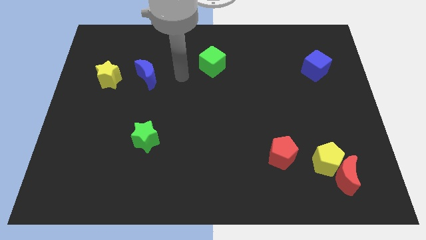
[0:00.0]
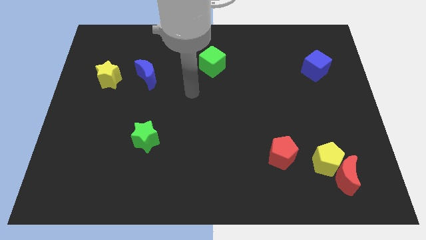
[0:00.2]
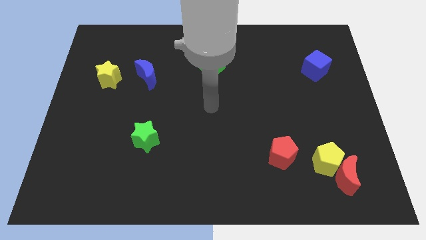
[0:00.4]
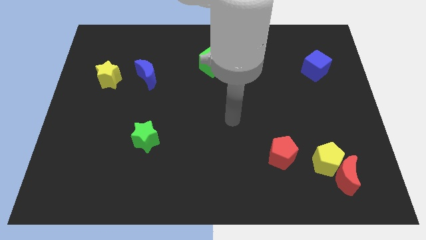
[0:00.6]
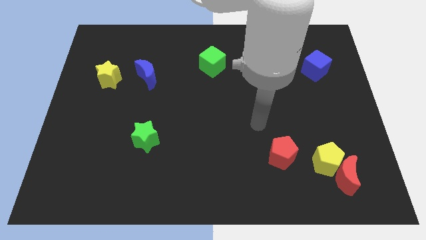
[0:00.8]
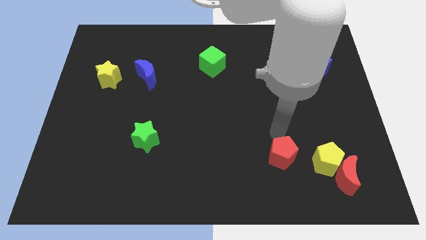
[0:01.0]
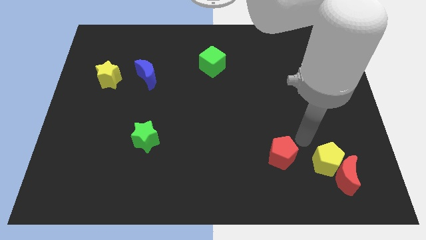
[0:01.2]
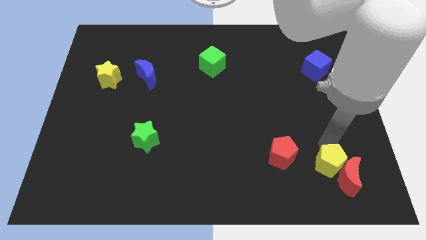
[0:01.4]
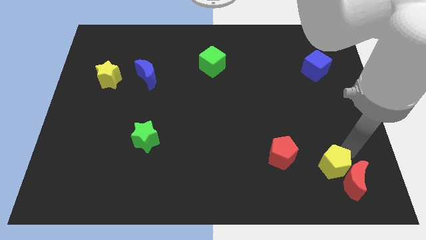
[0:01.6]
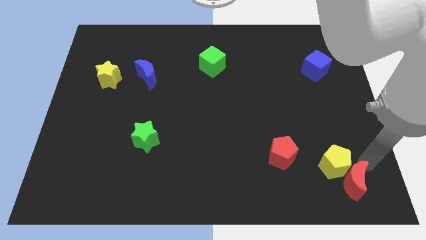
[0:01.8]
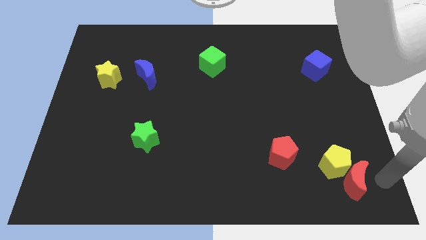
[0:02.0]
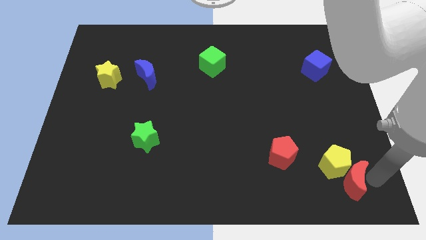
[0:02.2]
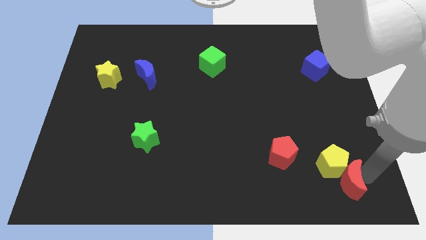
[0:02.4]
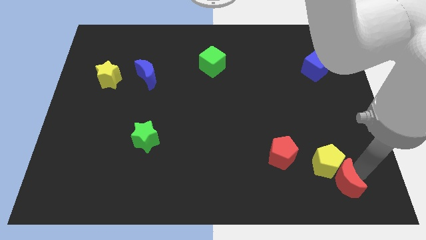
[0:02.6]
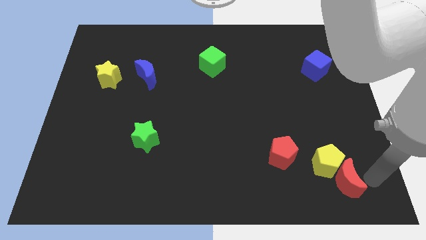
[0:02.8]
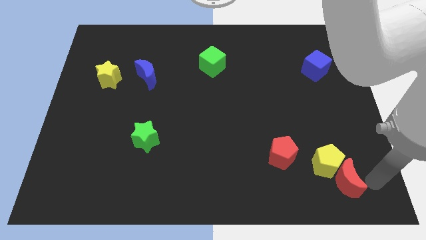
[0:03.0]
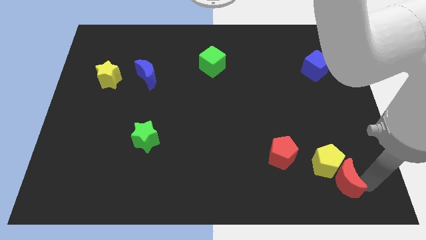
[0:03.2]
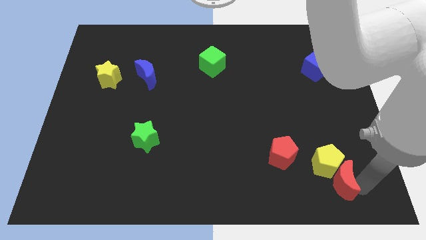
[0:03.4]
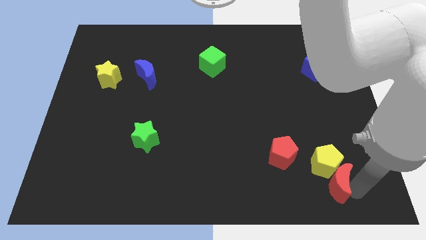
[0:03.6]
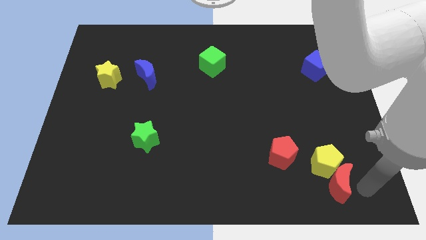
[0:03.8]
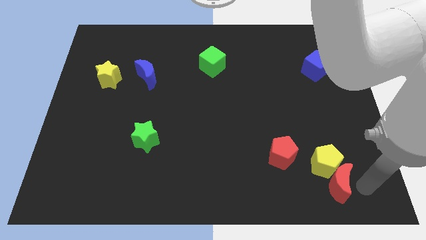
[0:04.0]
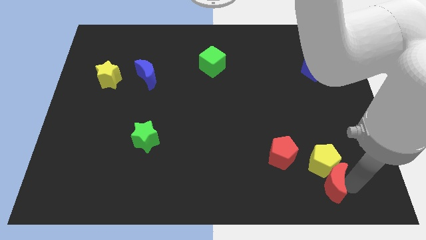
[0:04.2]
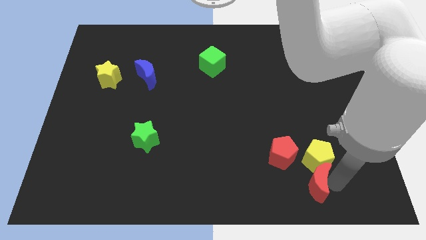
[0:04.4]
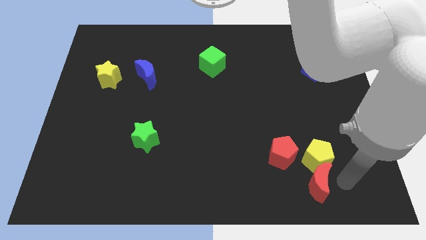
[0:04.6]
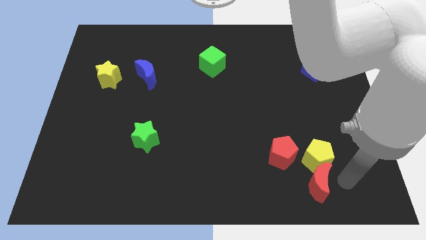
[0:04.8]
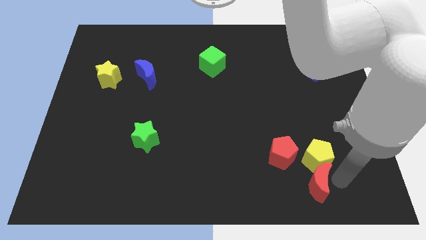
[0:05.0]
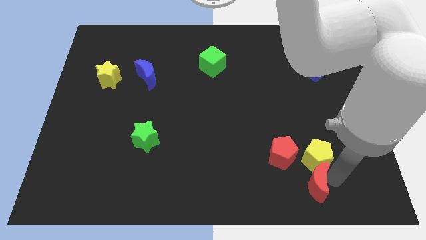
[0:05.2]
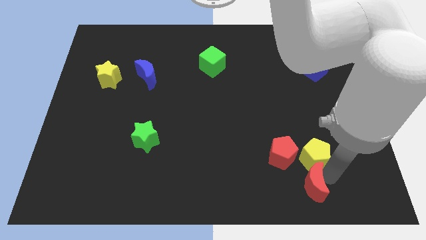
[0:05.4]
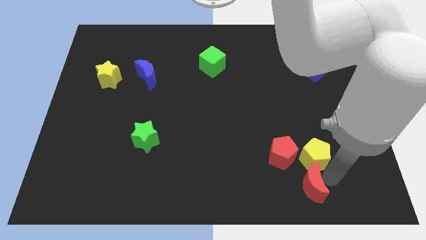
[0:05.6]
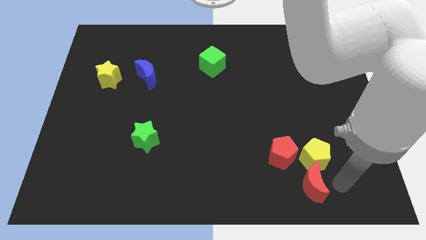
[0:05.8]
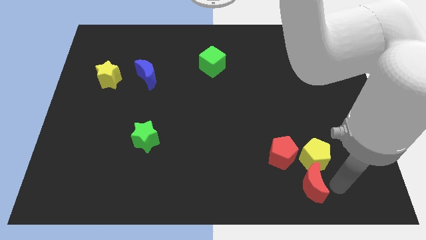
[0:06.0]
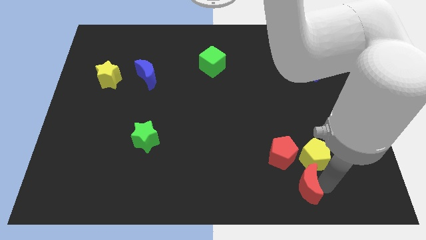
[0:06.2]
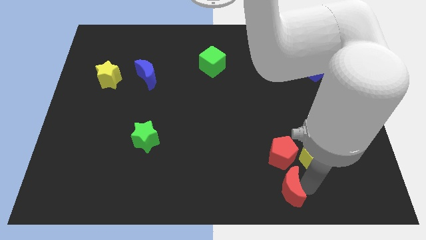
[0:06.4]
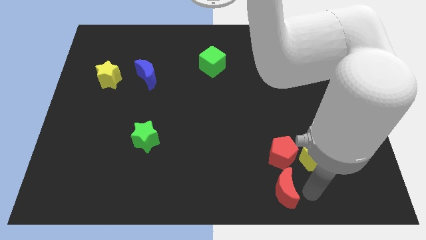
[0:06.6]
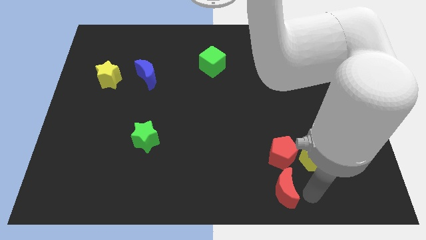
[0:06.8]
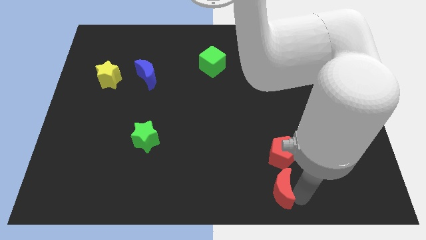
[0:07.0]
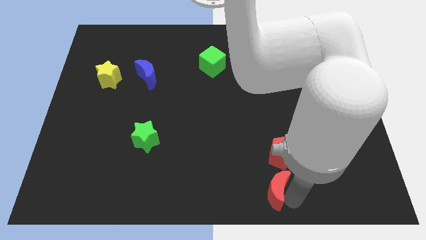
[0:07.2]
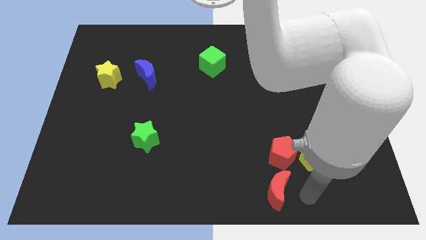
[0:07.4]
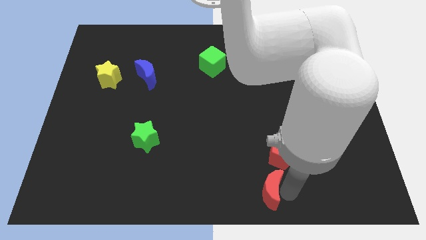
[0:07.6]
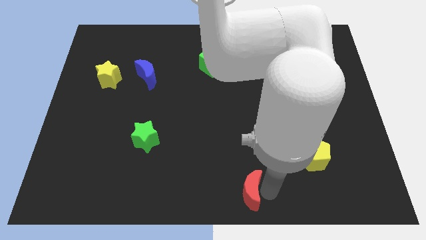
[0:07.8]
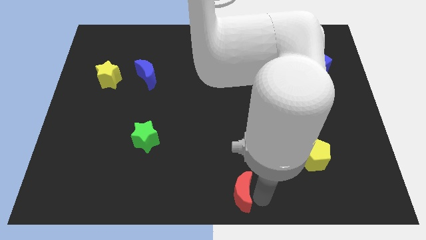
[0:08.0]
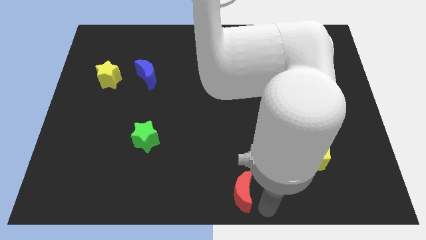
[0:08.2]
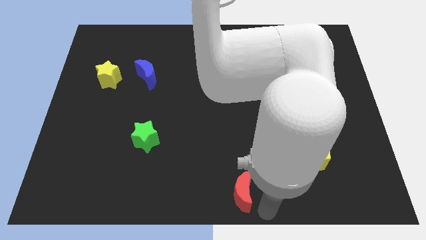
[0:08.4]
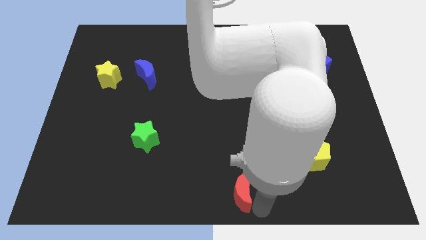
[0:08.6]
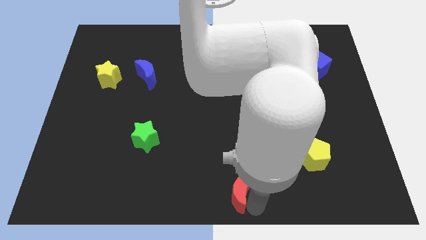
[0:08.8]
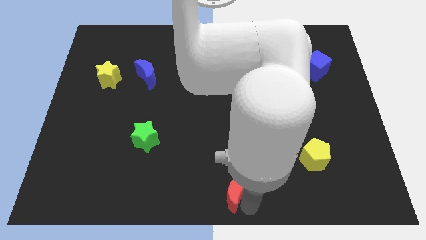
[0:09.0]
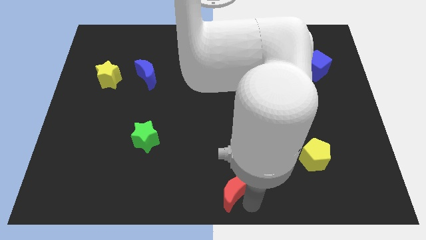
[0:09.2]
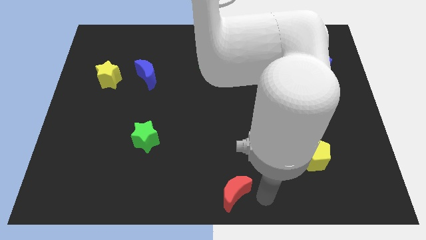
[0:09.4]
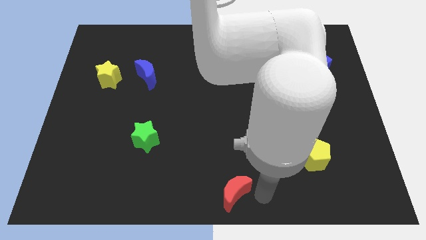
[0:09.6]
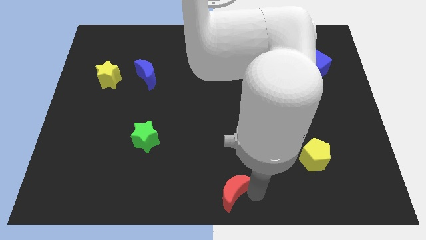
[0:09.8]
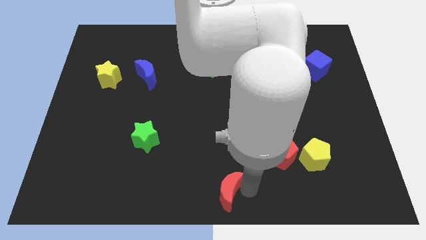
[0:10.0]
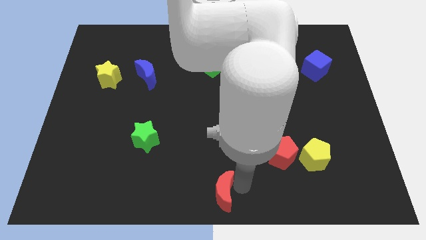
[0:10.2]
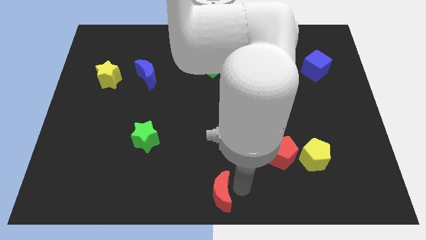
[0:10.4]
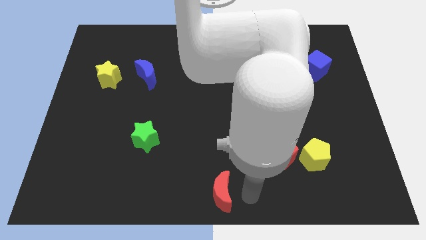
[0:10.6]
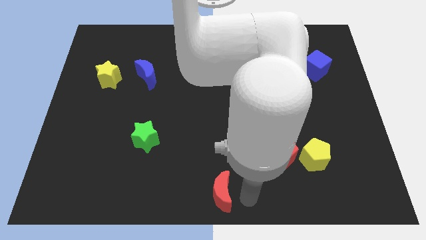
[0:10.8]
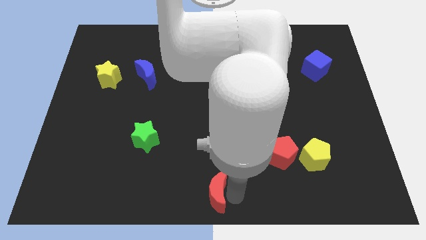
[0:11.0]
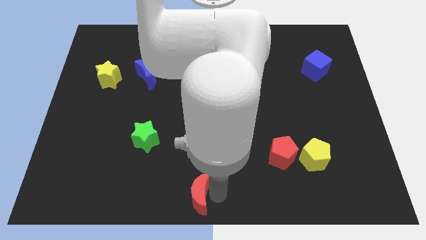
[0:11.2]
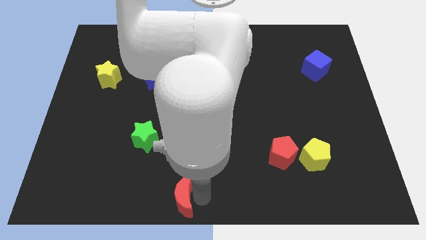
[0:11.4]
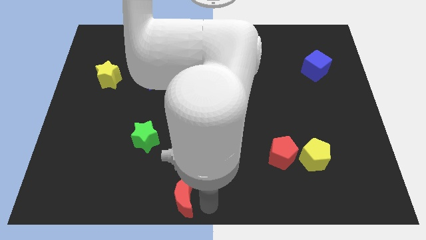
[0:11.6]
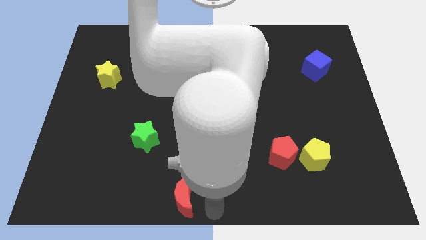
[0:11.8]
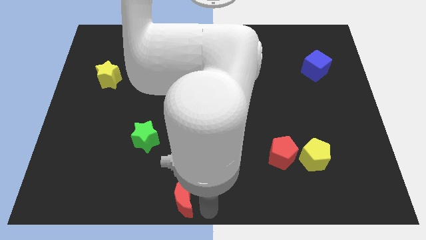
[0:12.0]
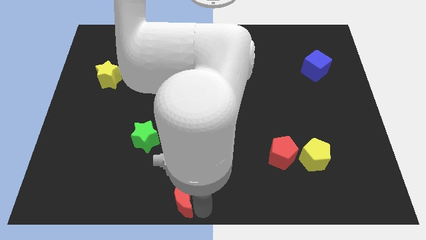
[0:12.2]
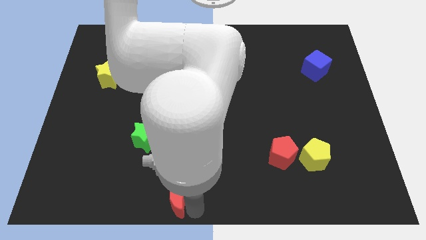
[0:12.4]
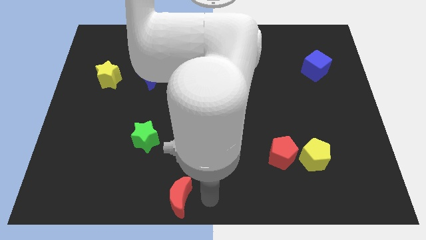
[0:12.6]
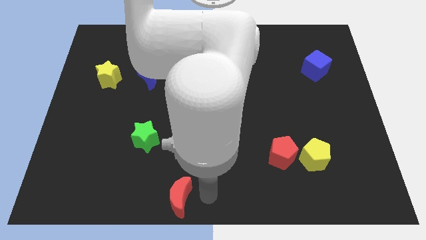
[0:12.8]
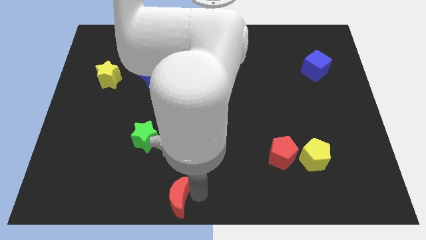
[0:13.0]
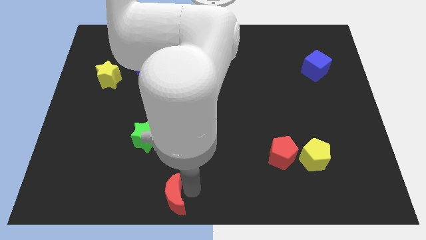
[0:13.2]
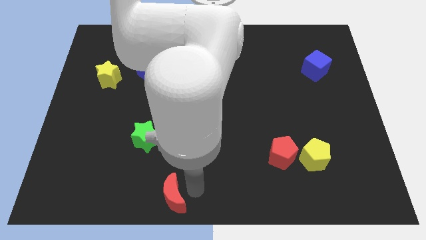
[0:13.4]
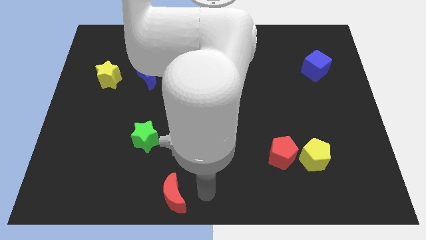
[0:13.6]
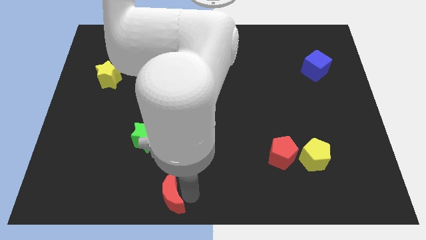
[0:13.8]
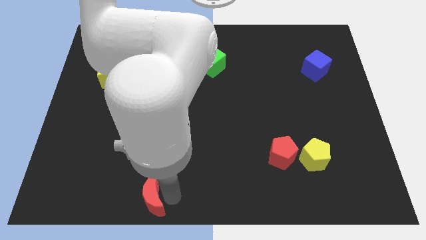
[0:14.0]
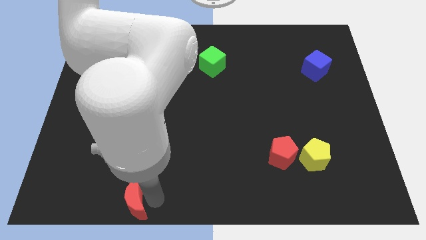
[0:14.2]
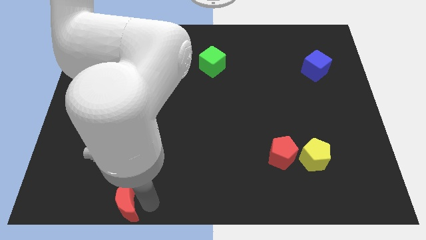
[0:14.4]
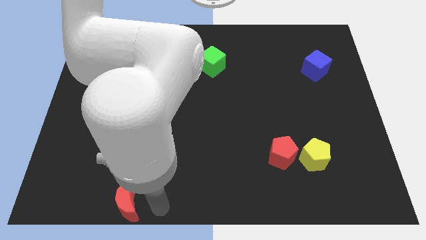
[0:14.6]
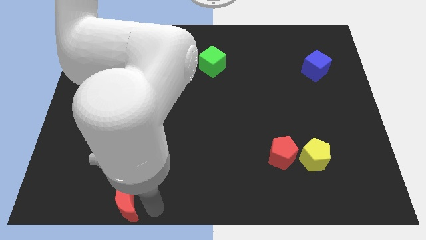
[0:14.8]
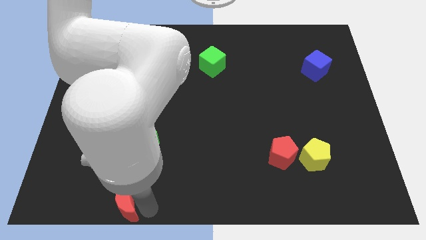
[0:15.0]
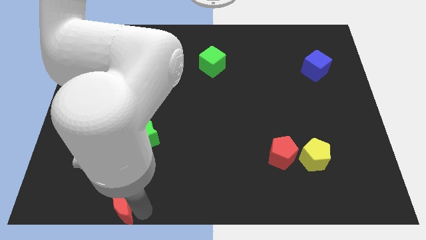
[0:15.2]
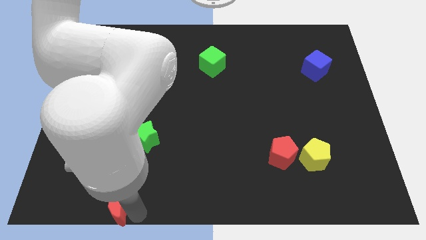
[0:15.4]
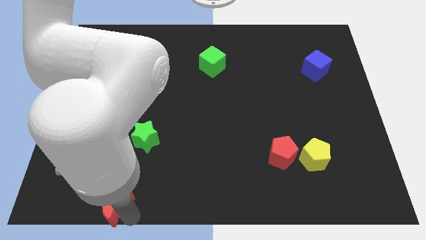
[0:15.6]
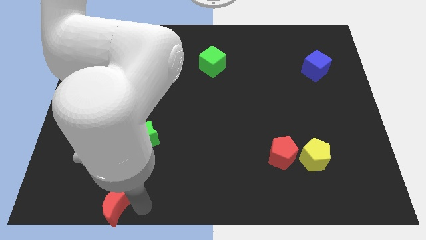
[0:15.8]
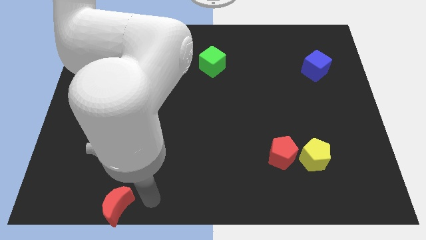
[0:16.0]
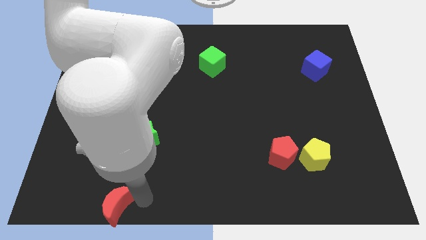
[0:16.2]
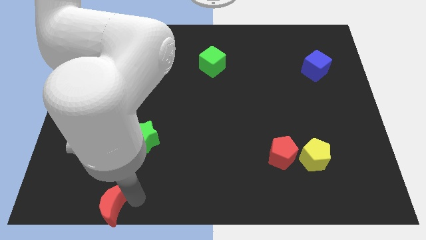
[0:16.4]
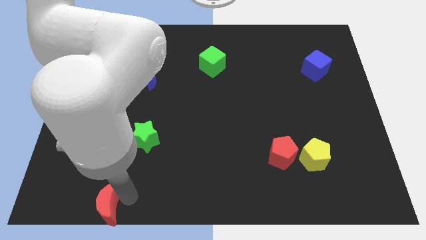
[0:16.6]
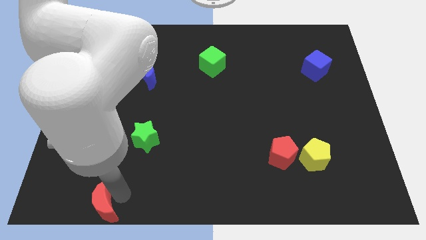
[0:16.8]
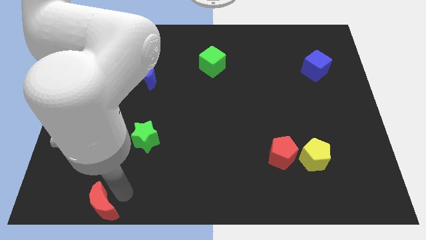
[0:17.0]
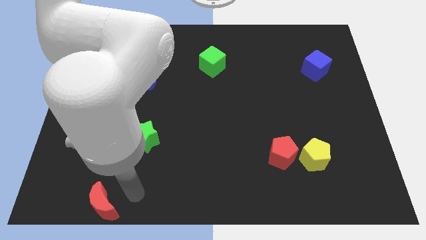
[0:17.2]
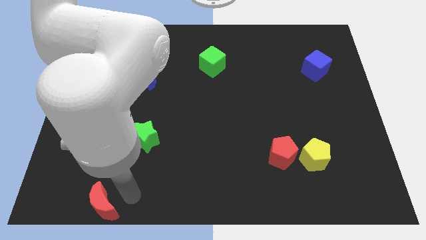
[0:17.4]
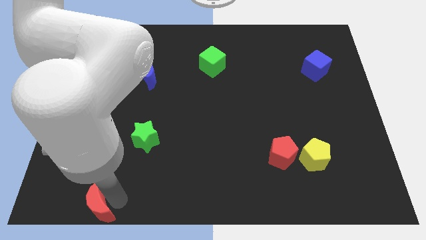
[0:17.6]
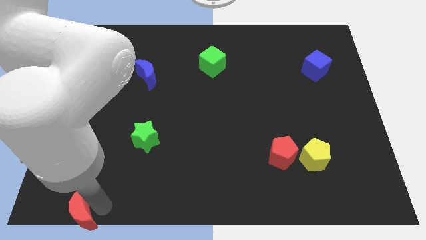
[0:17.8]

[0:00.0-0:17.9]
move the red moon to the bottom left
